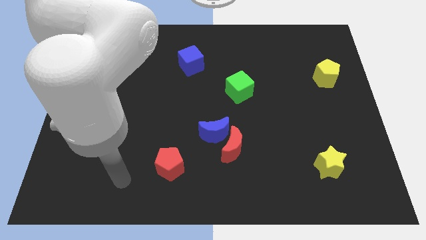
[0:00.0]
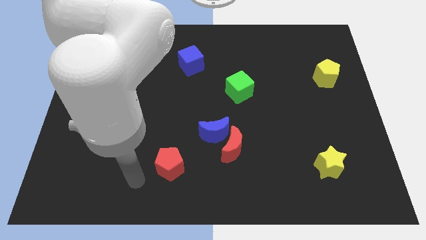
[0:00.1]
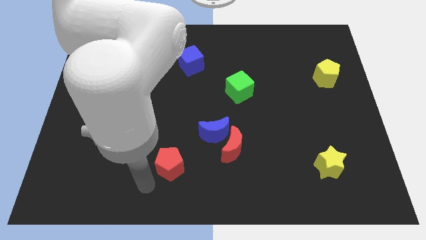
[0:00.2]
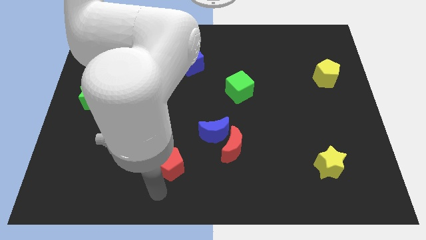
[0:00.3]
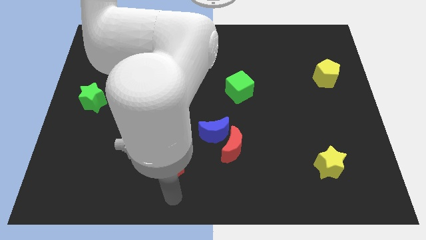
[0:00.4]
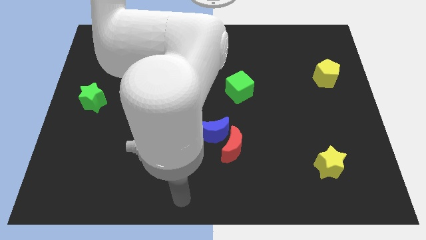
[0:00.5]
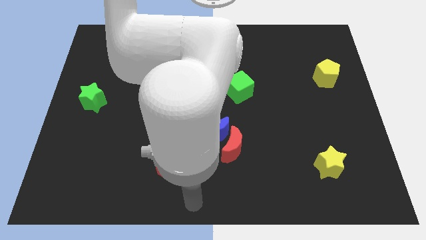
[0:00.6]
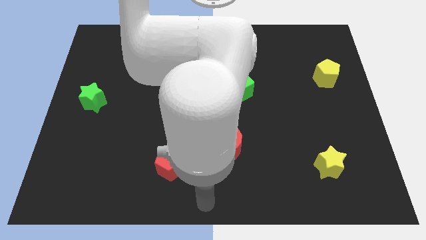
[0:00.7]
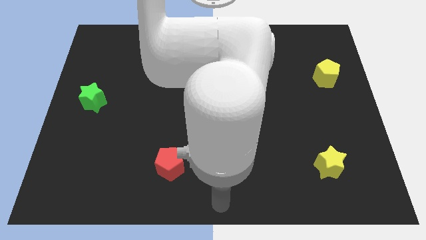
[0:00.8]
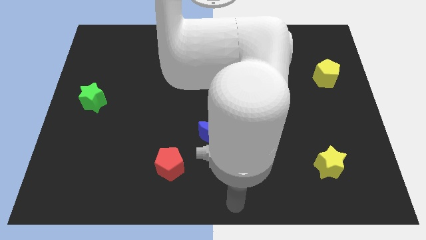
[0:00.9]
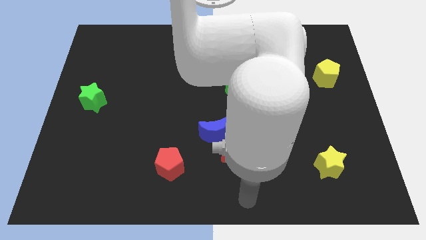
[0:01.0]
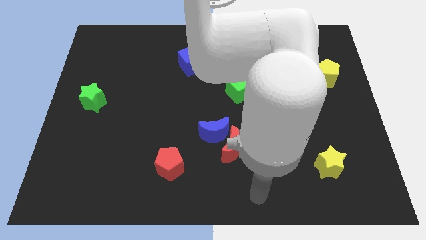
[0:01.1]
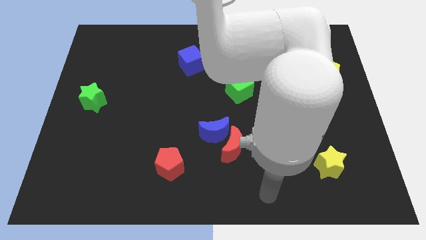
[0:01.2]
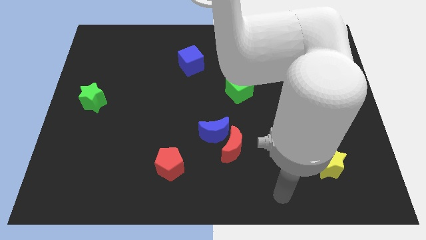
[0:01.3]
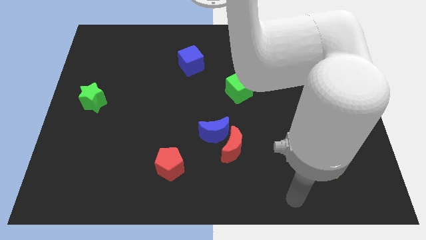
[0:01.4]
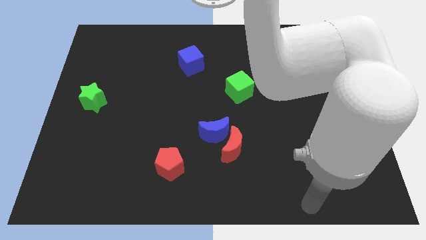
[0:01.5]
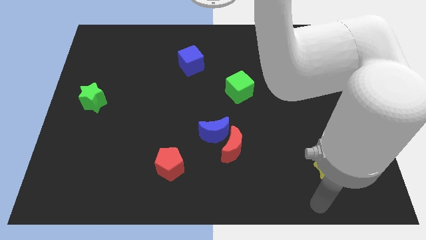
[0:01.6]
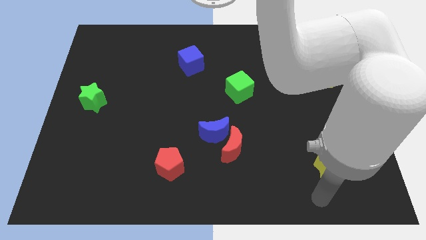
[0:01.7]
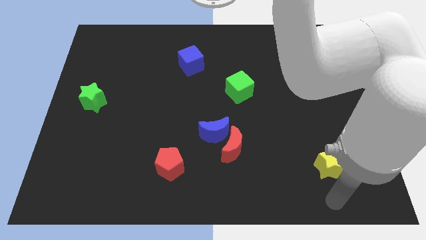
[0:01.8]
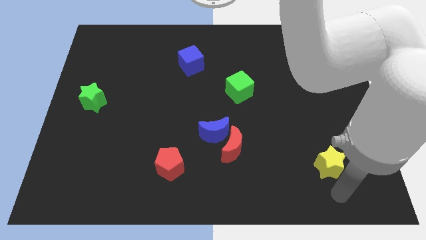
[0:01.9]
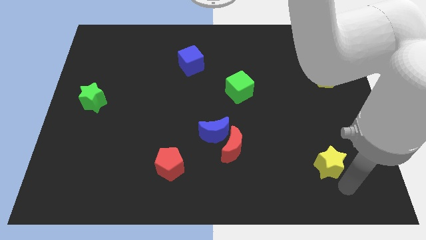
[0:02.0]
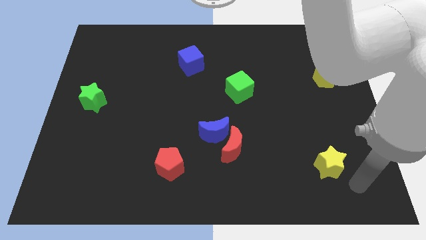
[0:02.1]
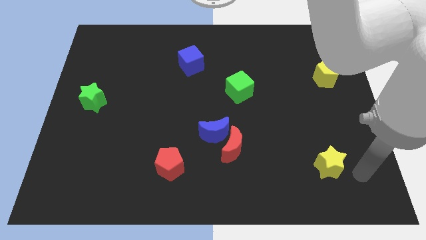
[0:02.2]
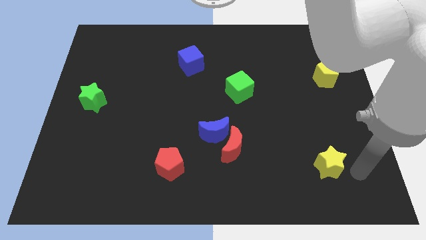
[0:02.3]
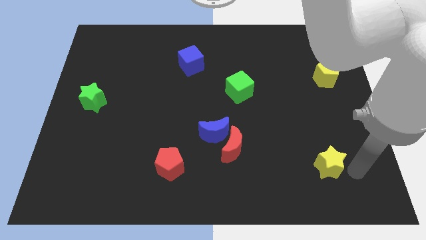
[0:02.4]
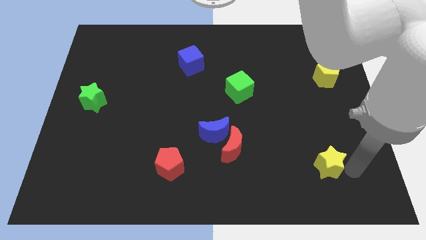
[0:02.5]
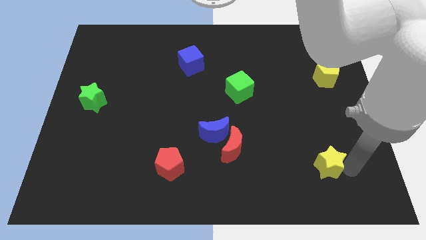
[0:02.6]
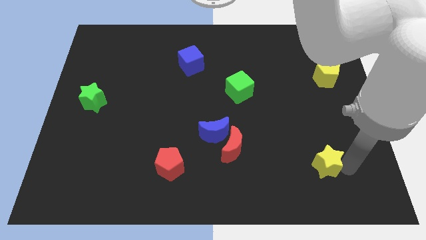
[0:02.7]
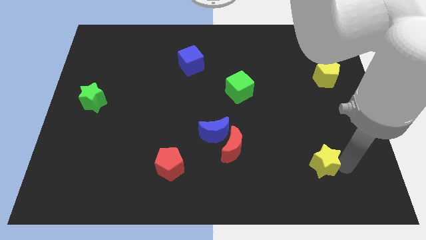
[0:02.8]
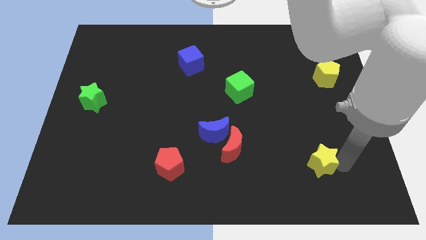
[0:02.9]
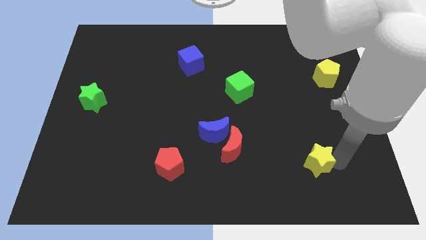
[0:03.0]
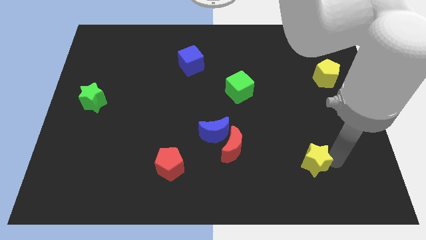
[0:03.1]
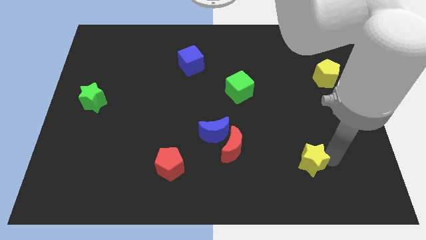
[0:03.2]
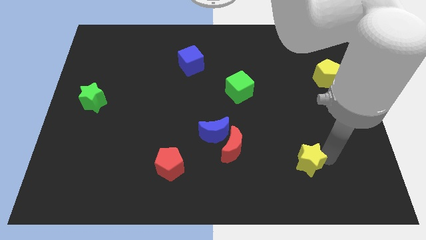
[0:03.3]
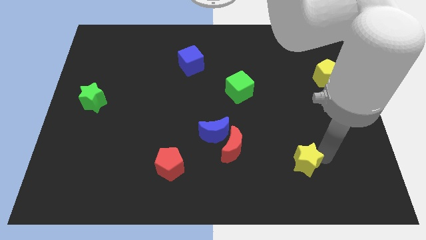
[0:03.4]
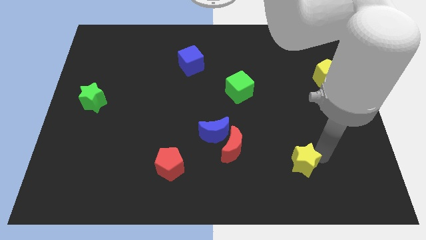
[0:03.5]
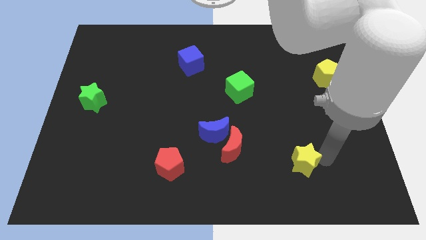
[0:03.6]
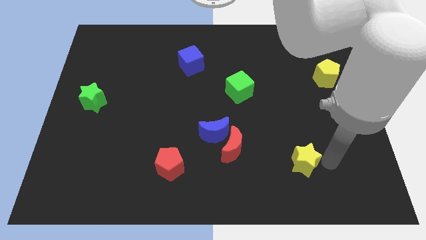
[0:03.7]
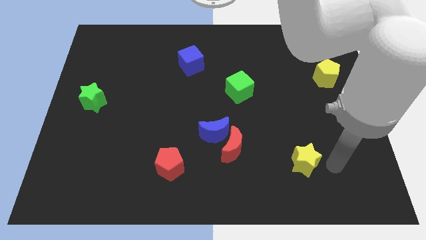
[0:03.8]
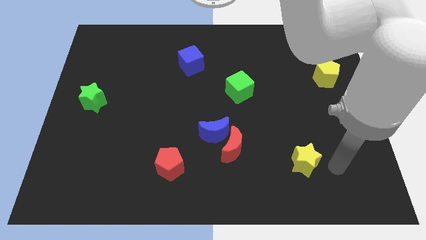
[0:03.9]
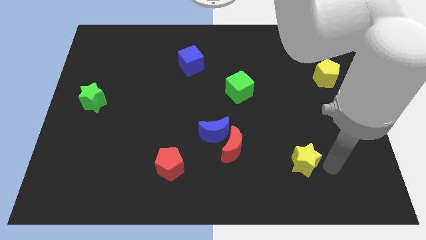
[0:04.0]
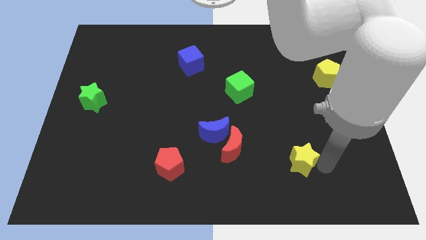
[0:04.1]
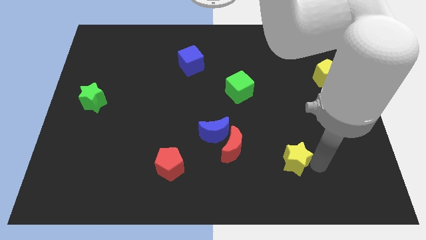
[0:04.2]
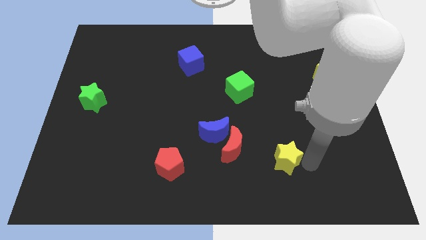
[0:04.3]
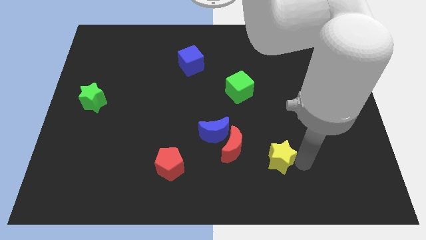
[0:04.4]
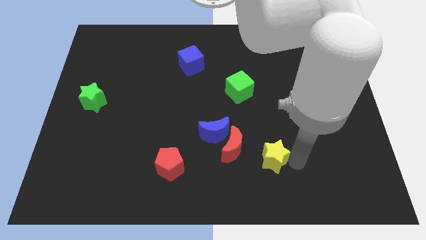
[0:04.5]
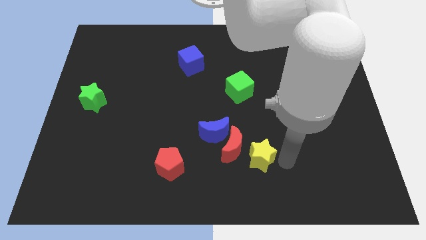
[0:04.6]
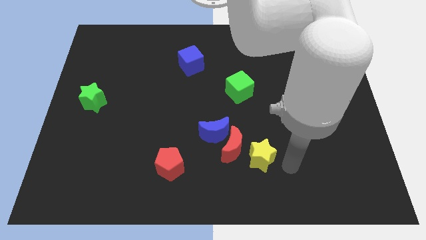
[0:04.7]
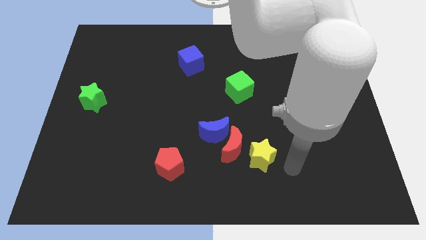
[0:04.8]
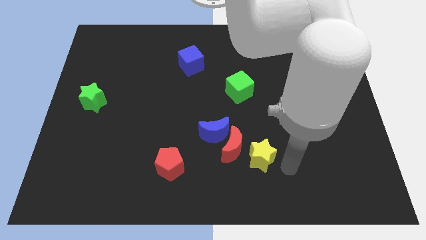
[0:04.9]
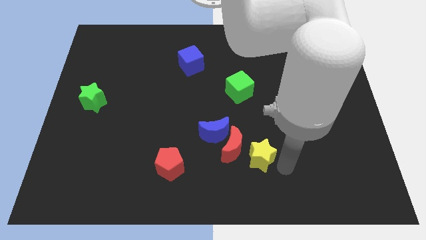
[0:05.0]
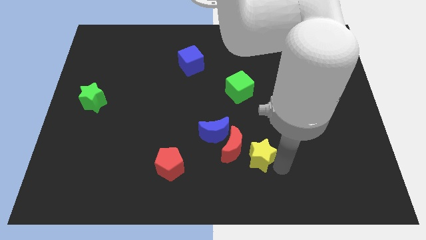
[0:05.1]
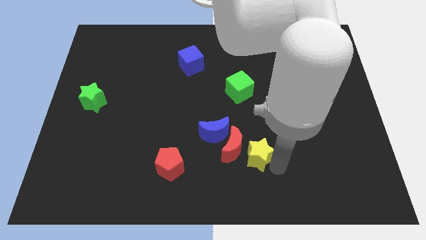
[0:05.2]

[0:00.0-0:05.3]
slide the yellow star to the red moon

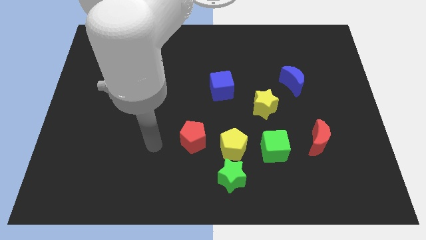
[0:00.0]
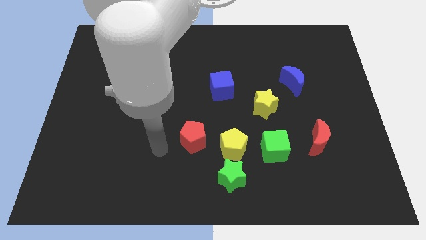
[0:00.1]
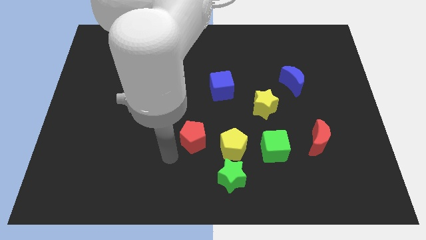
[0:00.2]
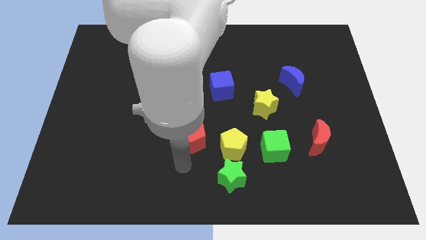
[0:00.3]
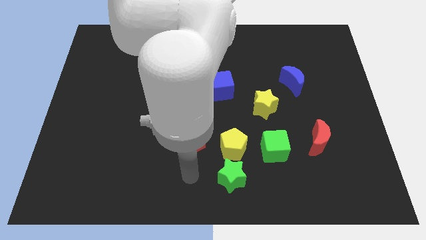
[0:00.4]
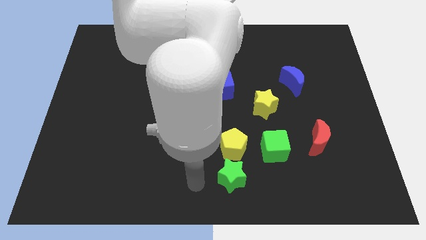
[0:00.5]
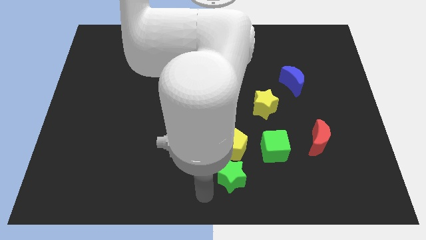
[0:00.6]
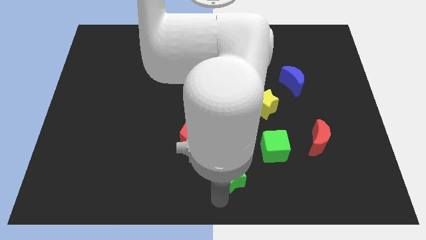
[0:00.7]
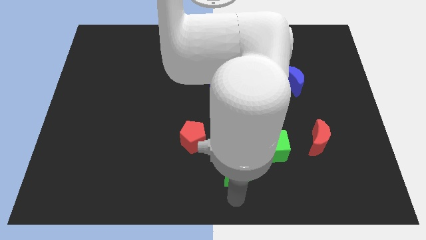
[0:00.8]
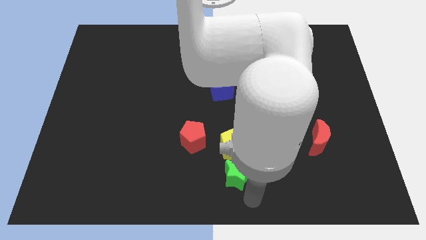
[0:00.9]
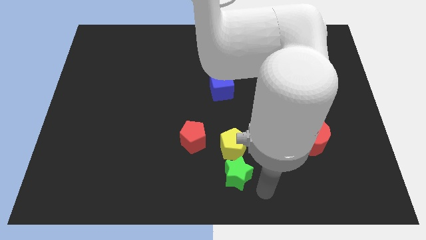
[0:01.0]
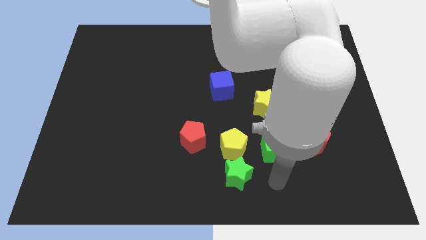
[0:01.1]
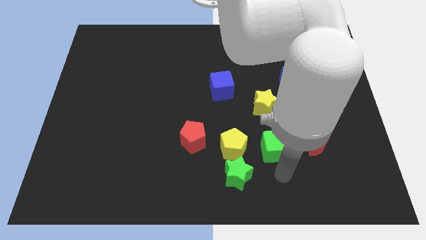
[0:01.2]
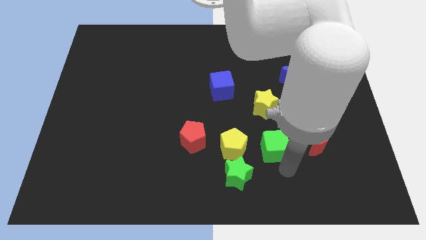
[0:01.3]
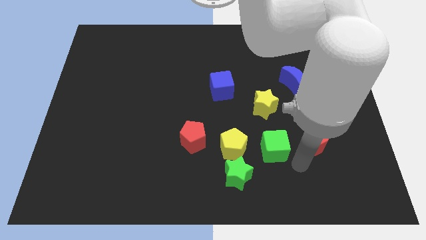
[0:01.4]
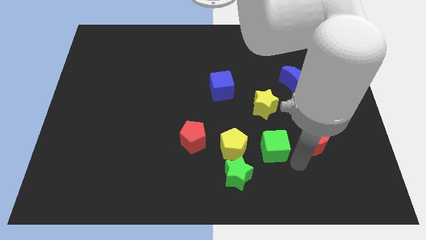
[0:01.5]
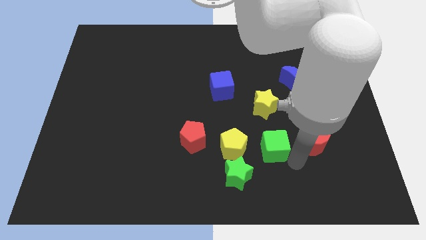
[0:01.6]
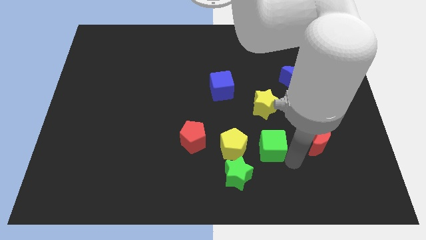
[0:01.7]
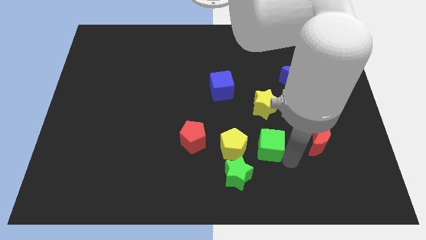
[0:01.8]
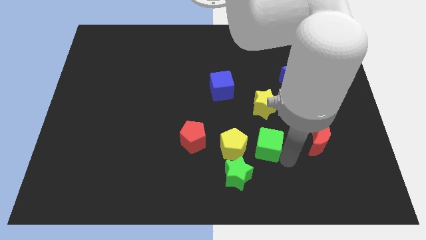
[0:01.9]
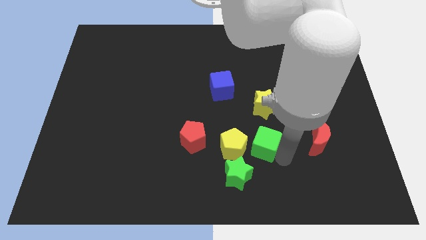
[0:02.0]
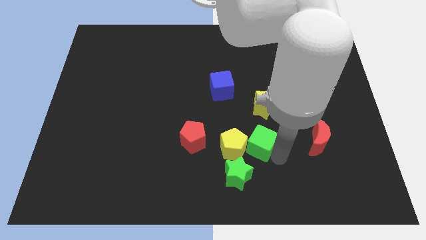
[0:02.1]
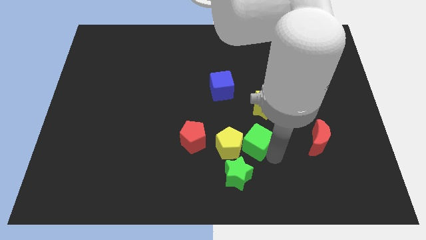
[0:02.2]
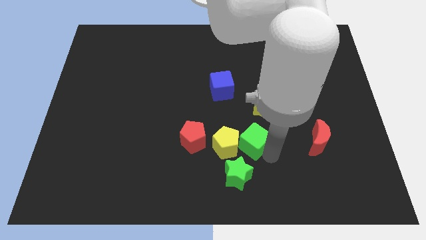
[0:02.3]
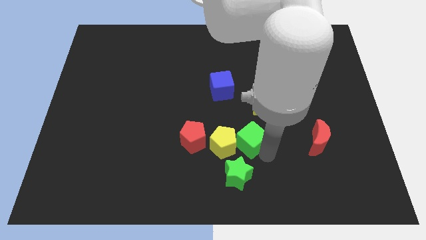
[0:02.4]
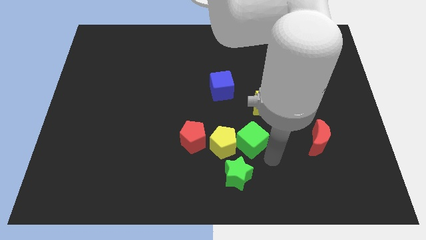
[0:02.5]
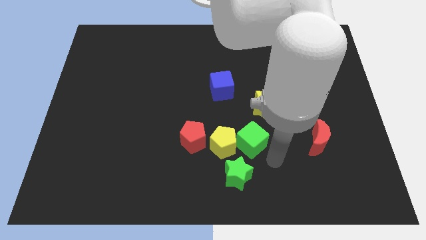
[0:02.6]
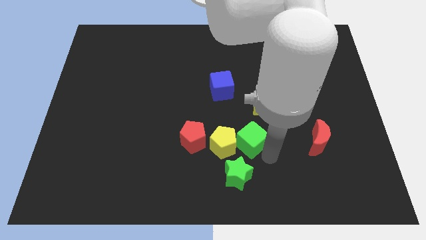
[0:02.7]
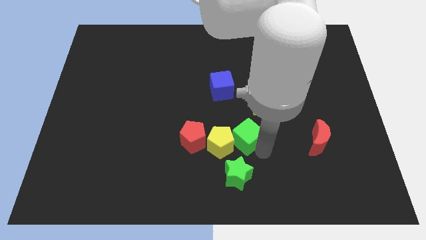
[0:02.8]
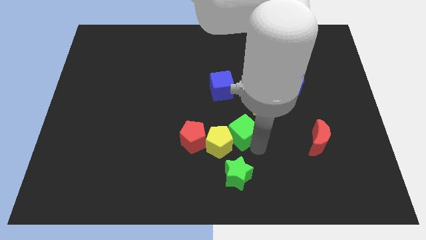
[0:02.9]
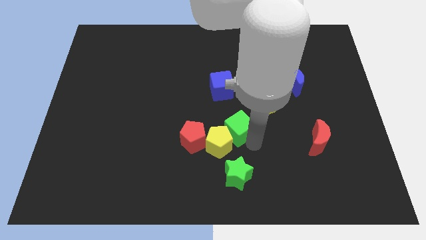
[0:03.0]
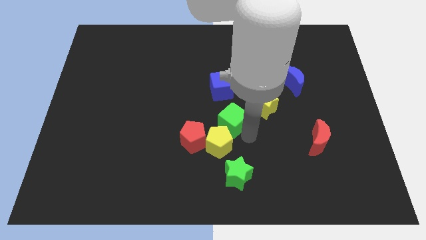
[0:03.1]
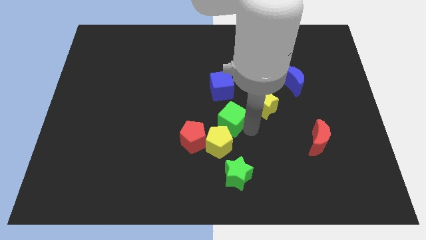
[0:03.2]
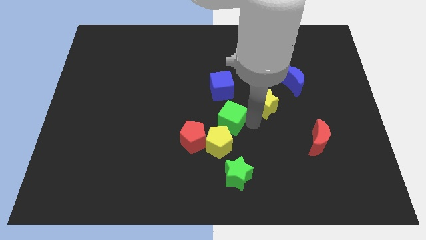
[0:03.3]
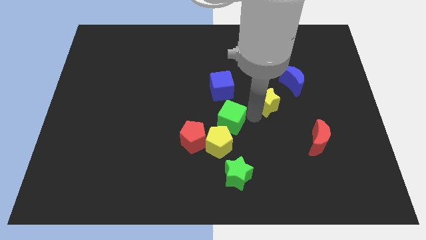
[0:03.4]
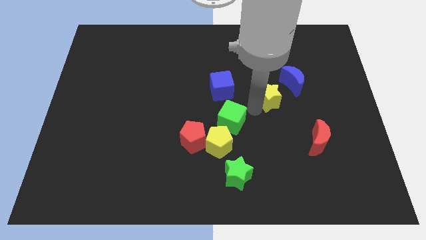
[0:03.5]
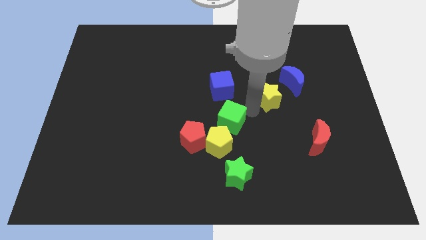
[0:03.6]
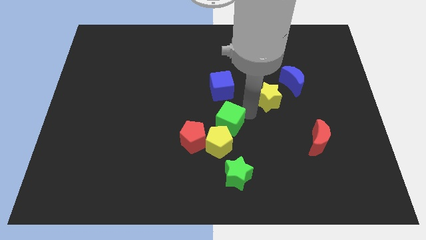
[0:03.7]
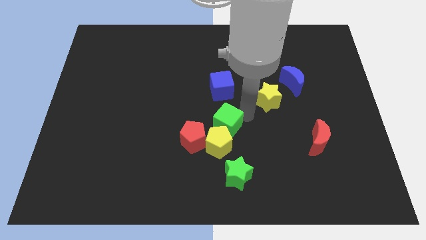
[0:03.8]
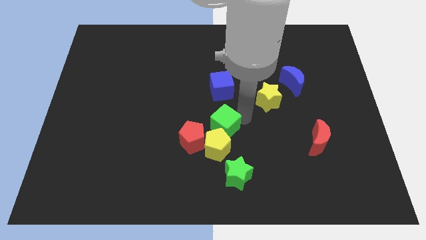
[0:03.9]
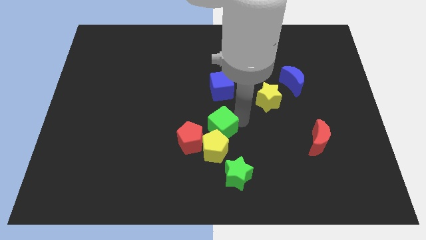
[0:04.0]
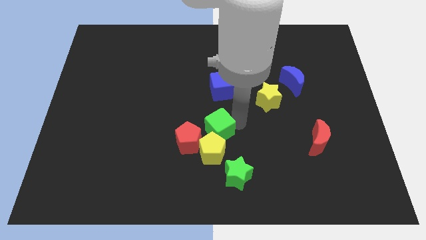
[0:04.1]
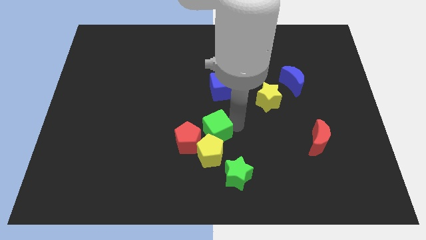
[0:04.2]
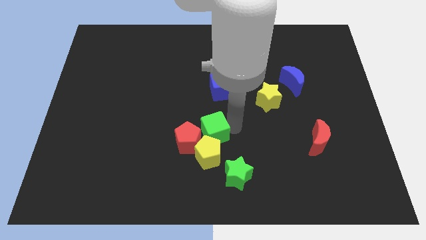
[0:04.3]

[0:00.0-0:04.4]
push the green cube towards the red pentagon
